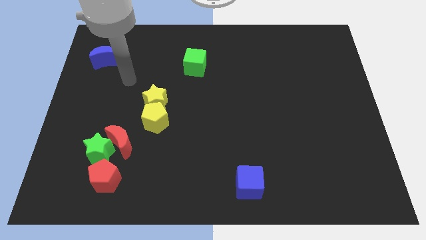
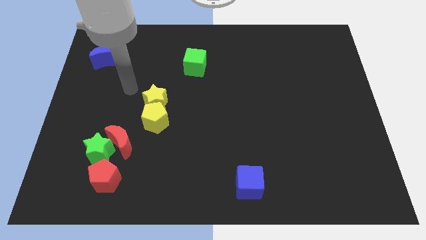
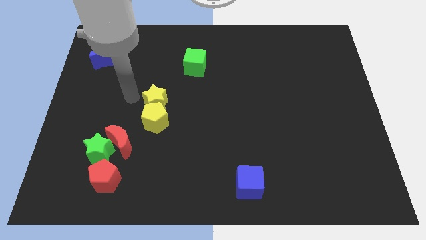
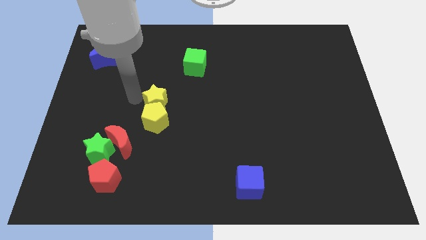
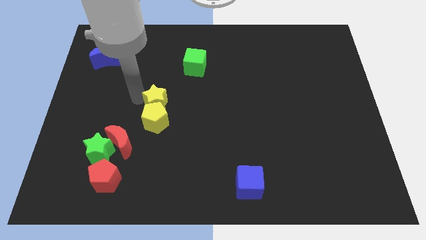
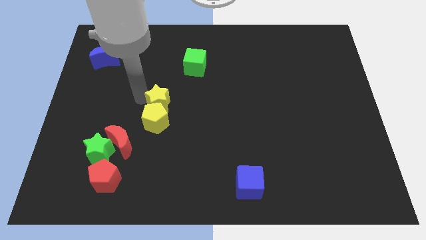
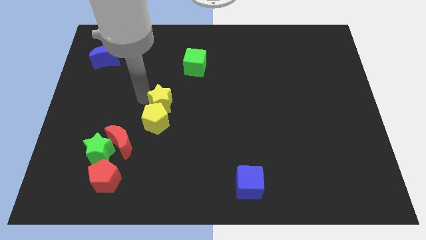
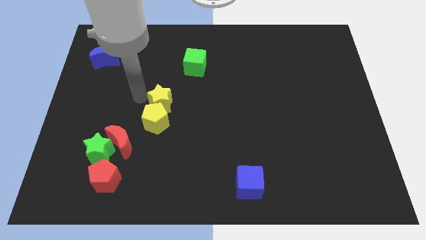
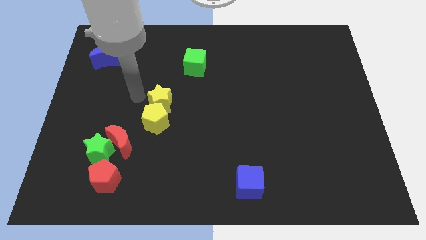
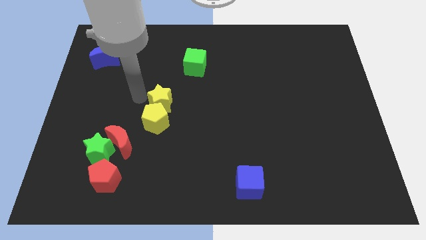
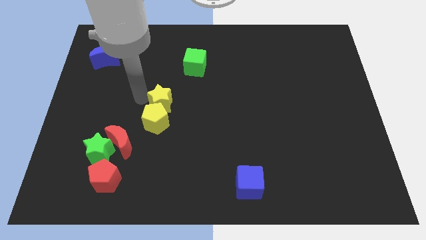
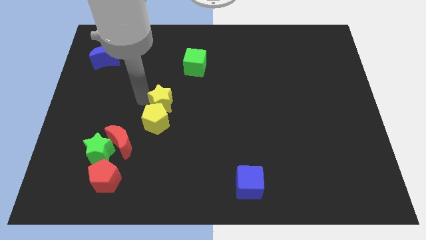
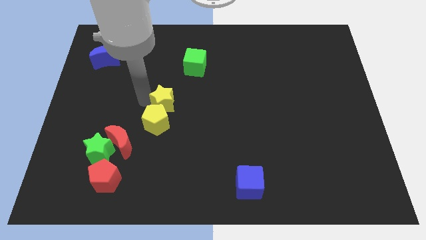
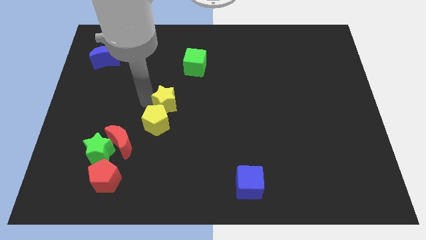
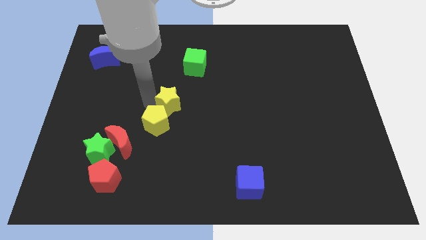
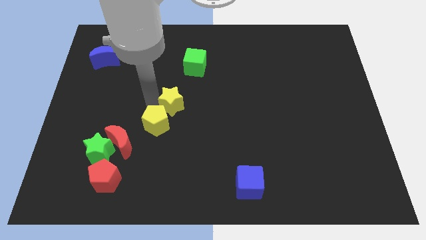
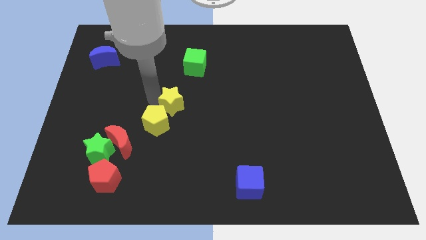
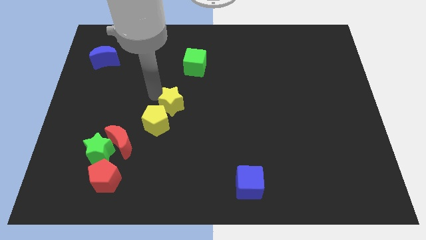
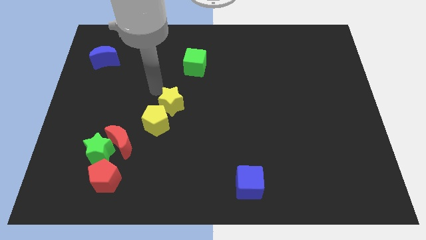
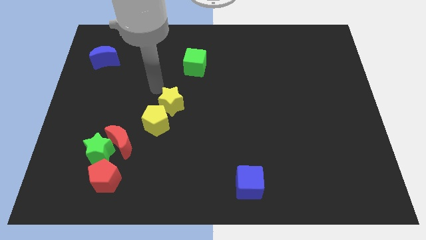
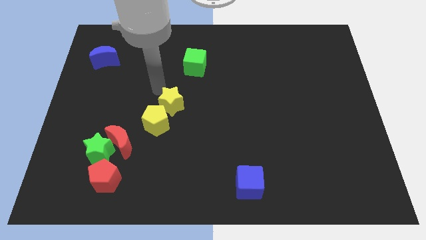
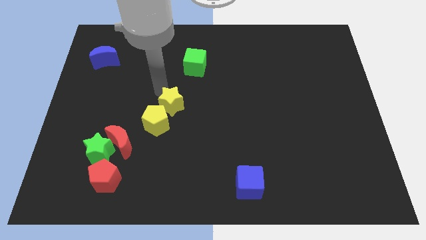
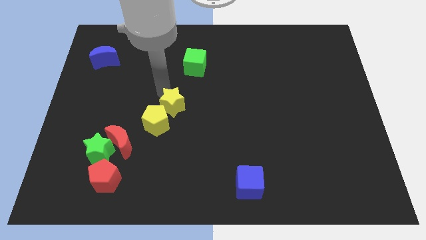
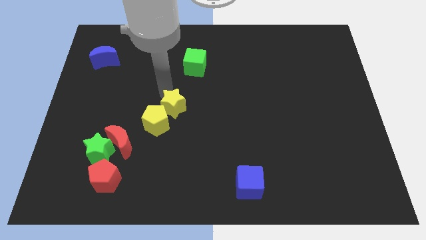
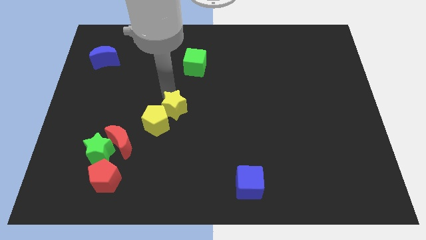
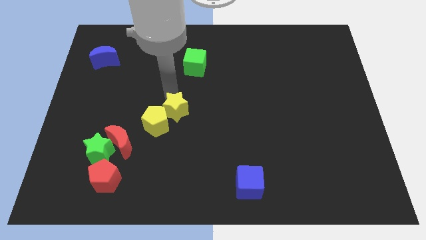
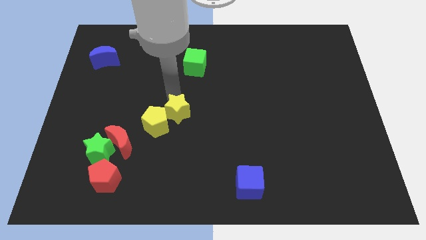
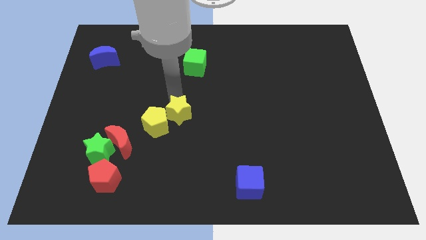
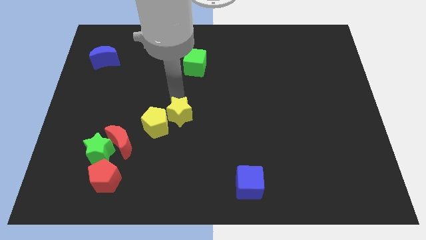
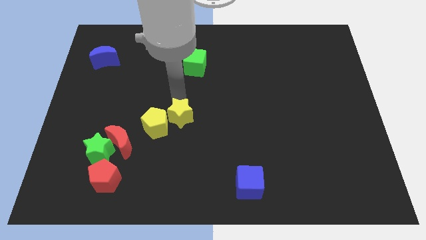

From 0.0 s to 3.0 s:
push the yellow star a little bit downwards and to the right

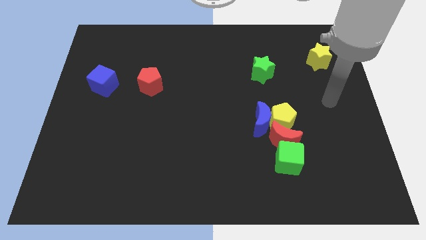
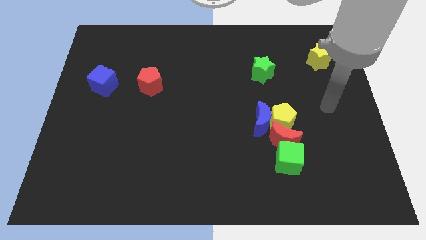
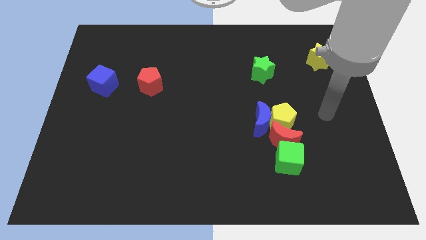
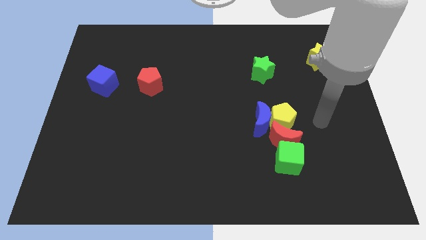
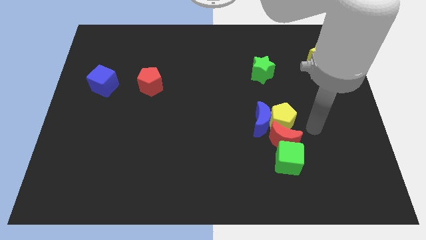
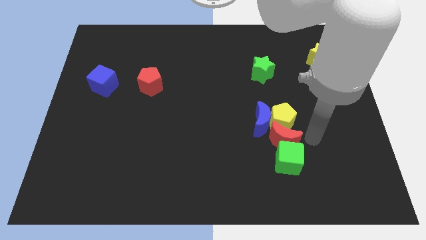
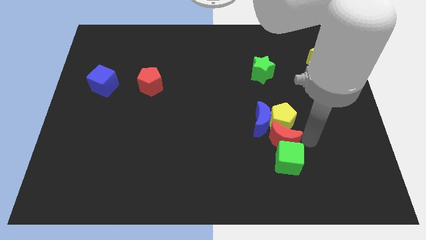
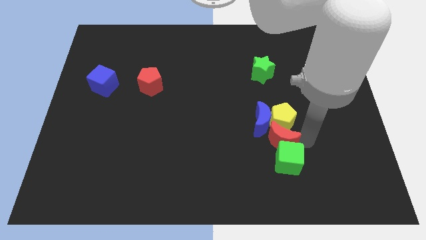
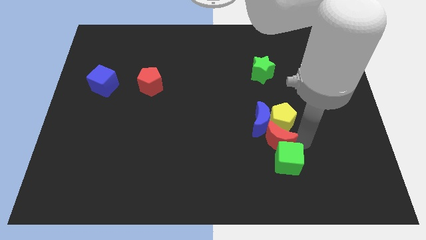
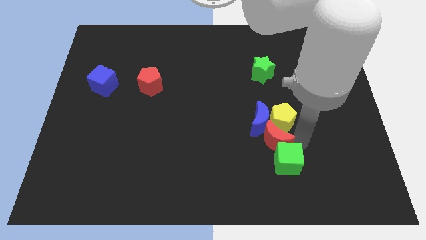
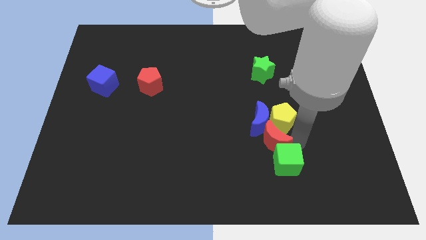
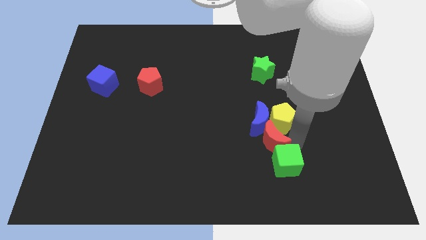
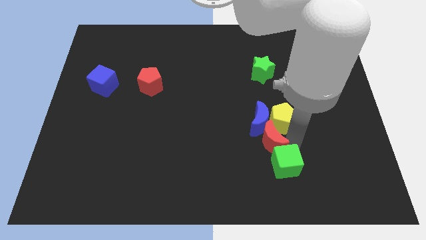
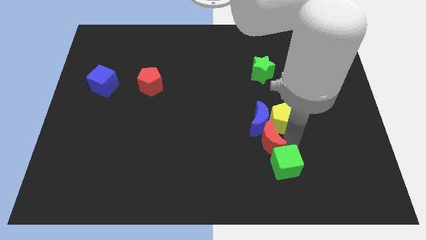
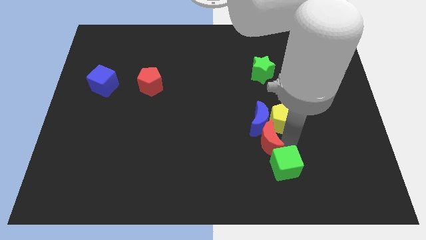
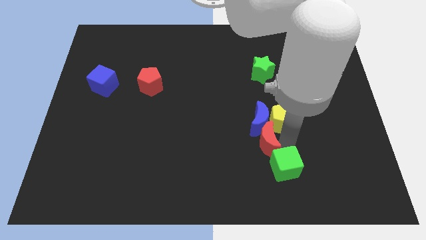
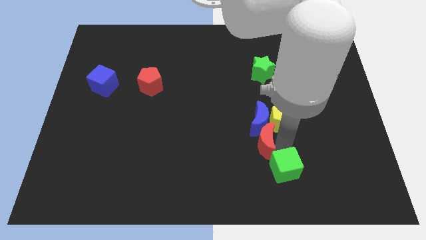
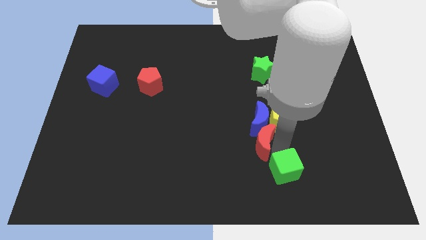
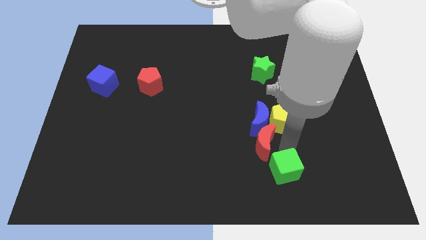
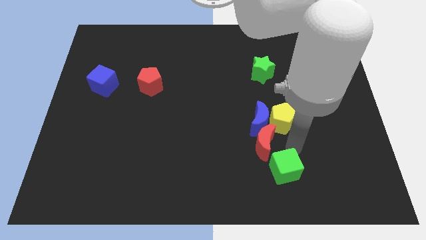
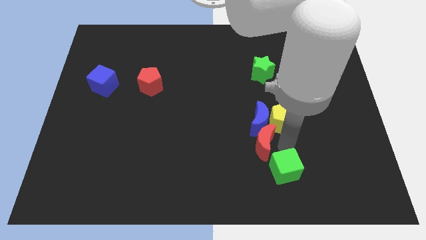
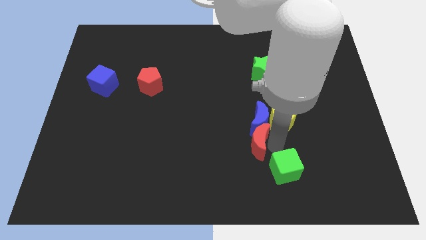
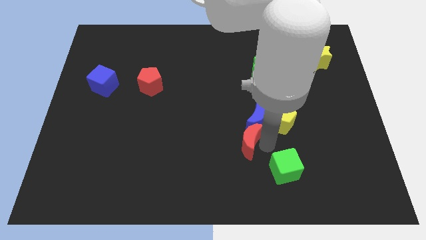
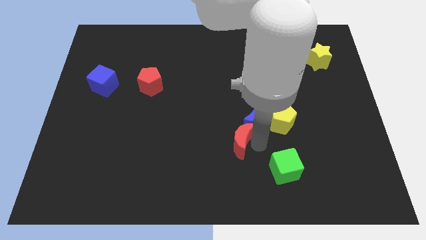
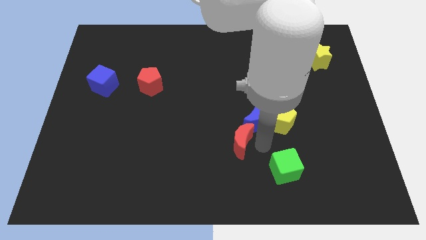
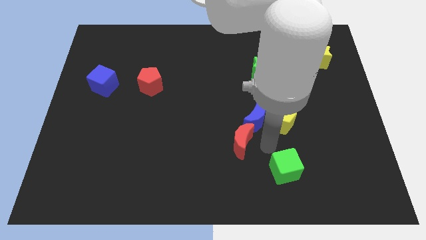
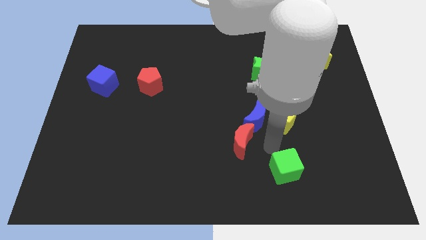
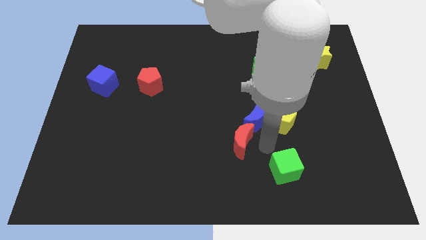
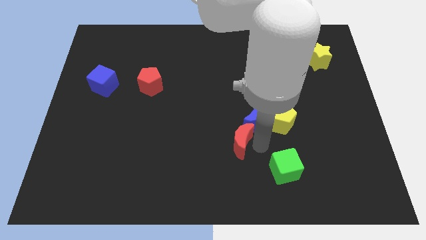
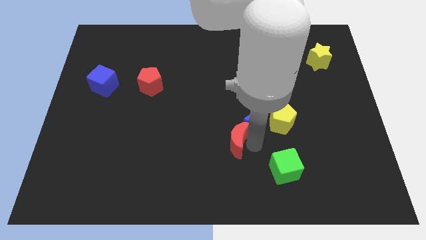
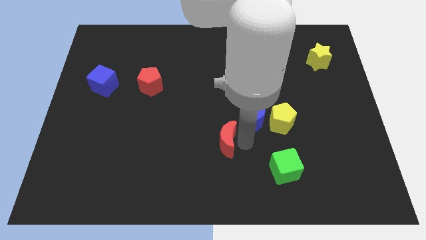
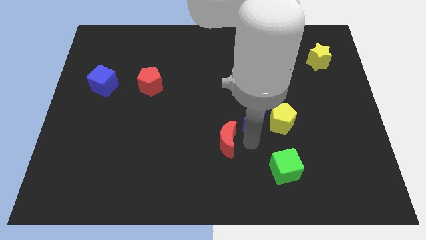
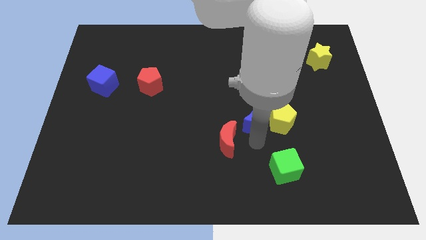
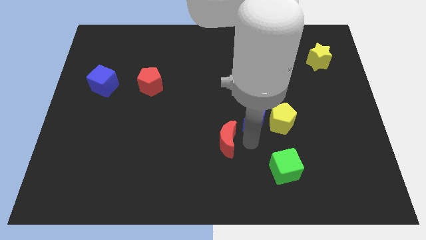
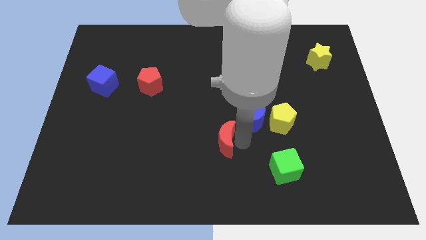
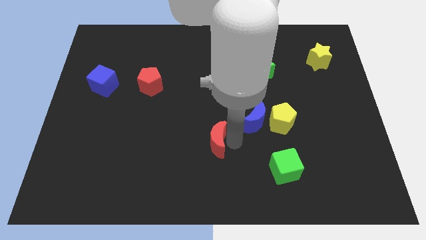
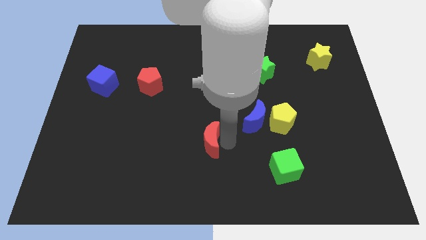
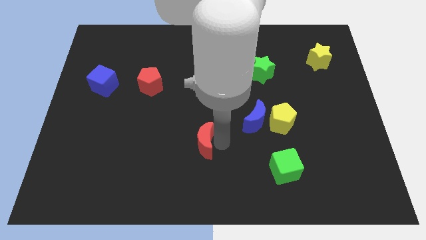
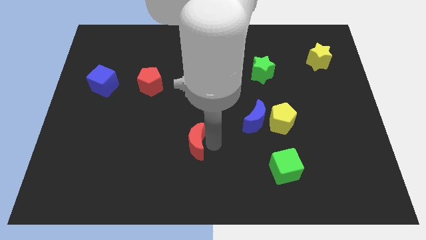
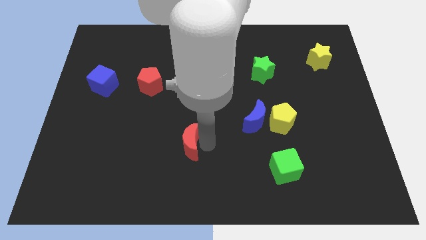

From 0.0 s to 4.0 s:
slide the red moon left

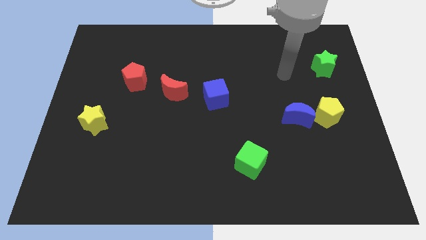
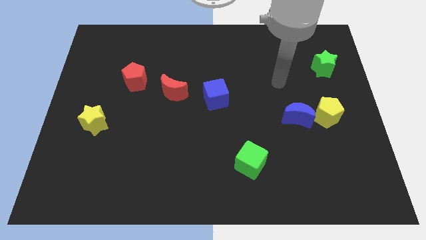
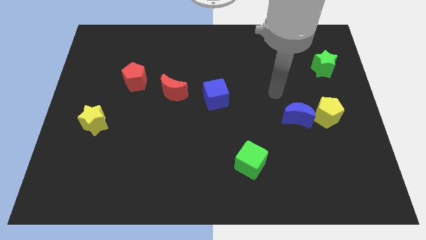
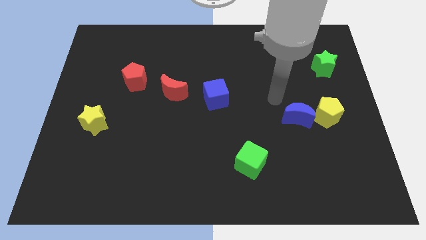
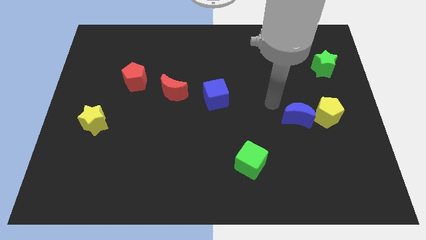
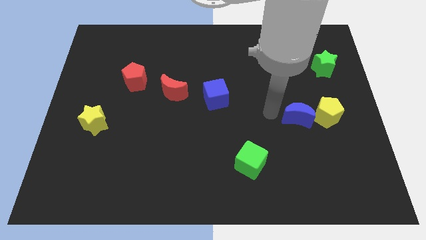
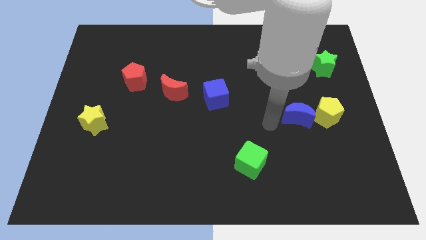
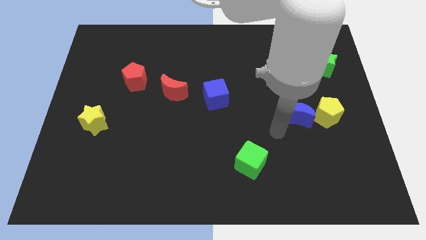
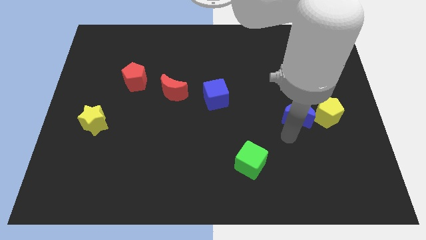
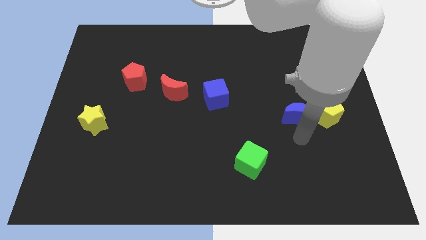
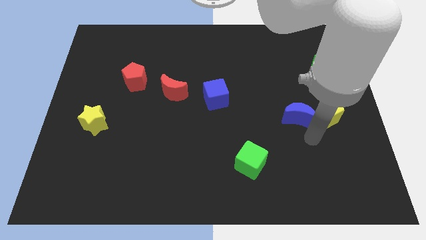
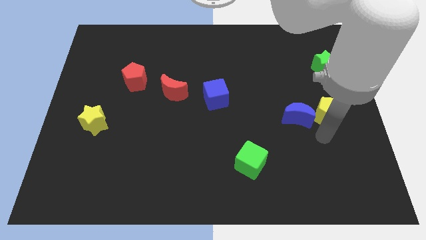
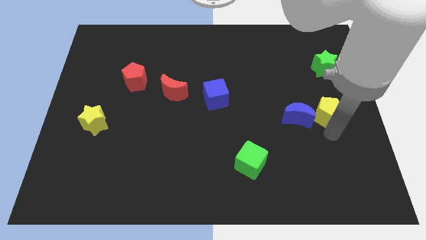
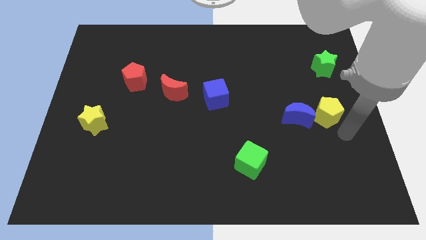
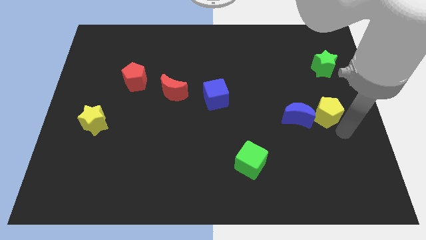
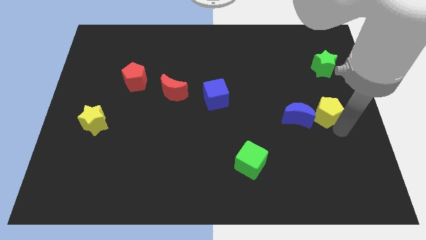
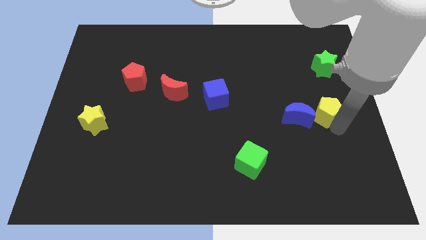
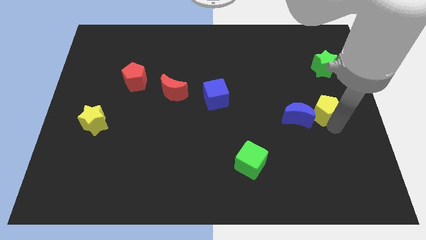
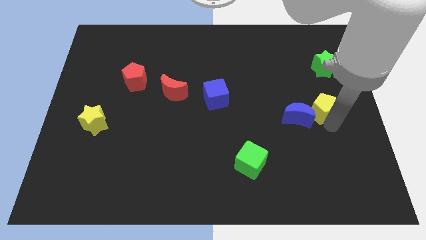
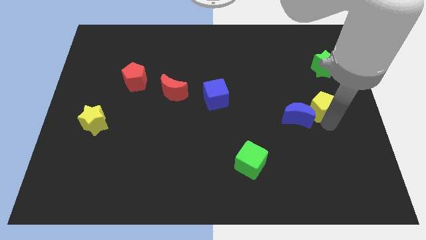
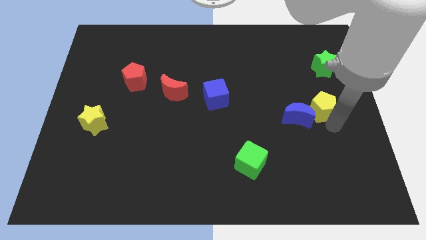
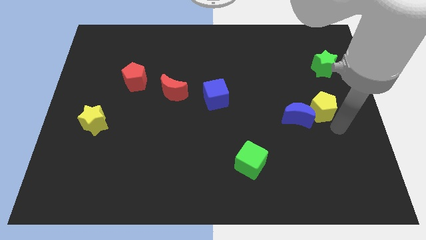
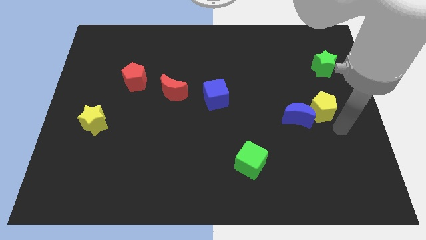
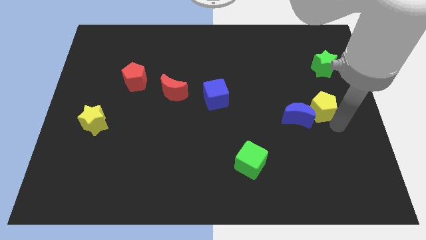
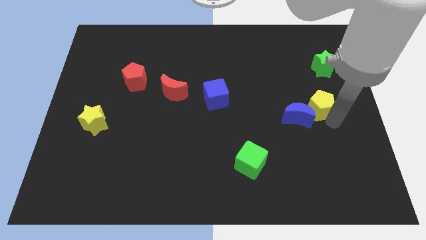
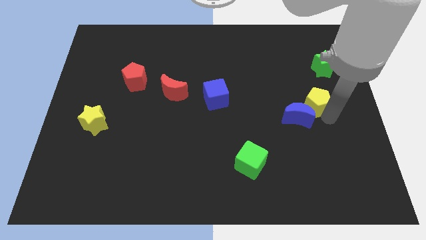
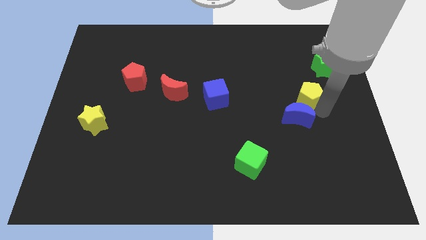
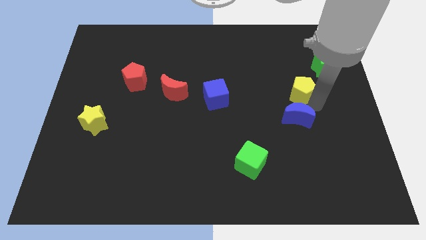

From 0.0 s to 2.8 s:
move the yellow pentagon a little bit diagonally upwards and left
